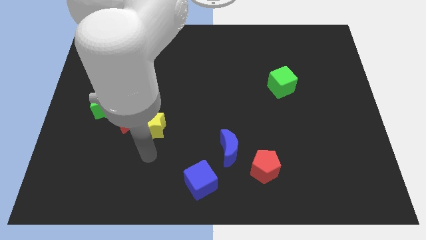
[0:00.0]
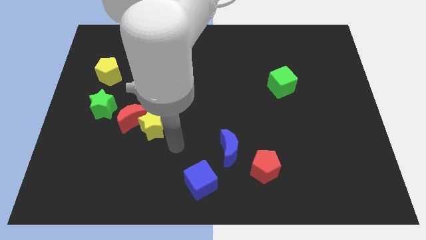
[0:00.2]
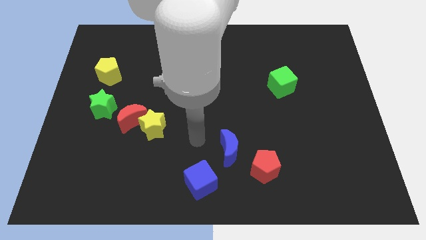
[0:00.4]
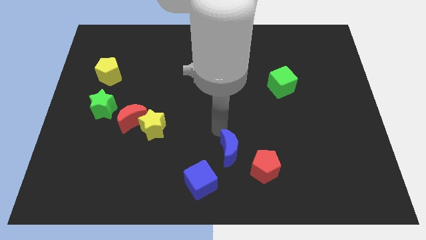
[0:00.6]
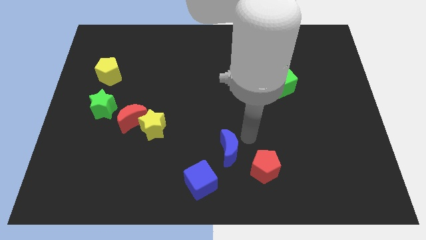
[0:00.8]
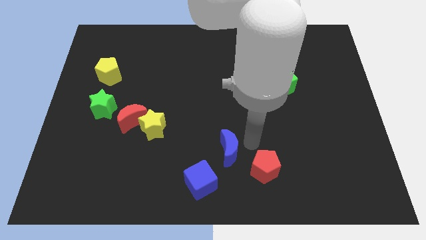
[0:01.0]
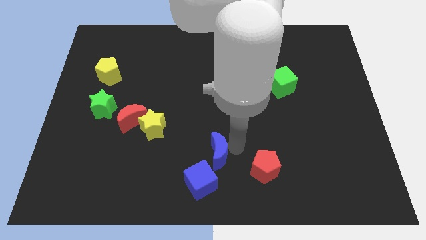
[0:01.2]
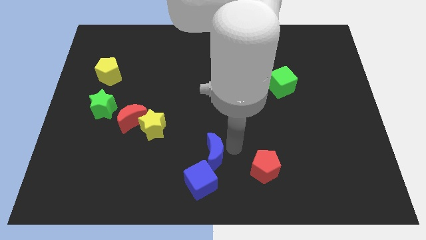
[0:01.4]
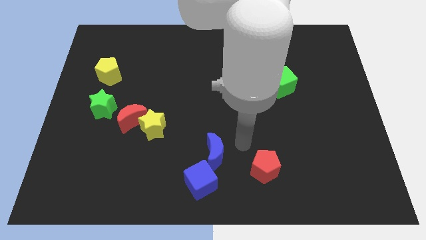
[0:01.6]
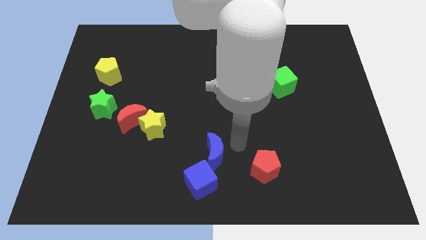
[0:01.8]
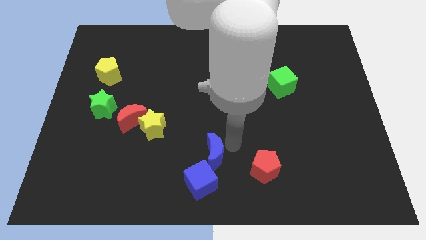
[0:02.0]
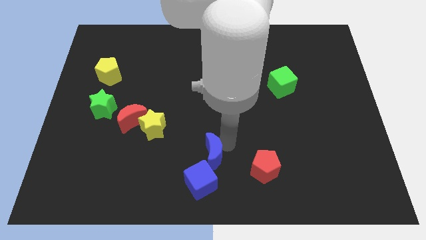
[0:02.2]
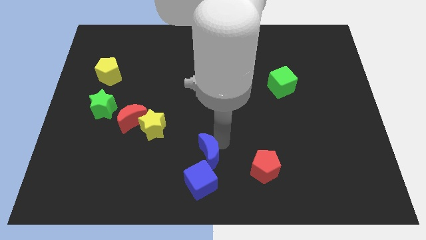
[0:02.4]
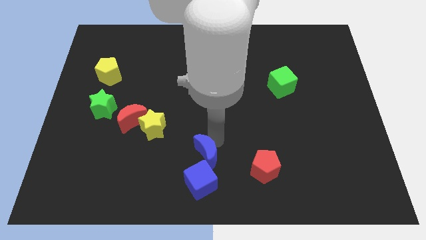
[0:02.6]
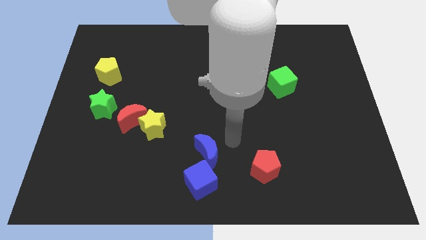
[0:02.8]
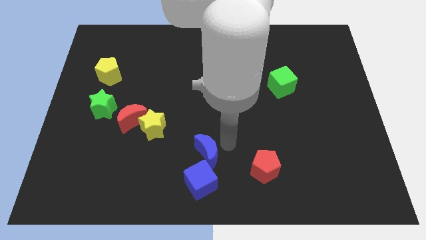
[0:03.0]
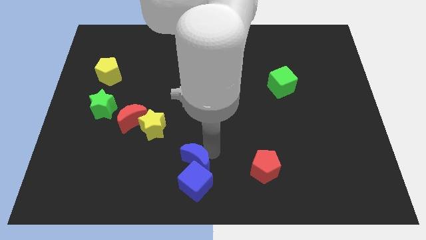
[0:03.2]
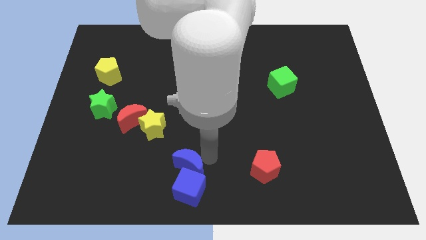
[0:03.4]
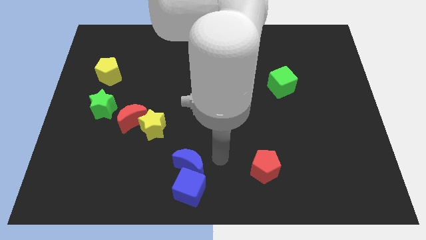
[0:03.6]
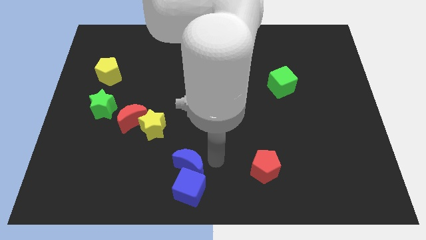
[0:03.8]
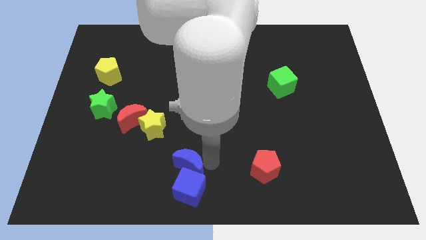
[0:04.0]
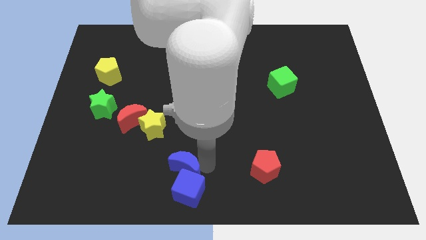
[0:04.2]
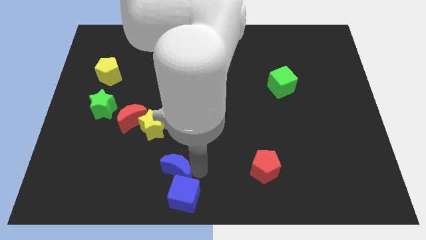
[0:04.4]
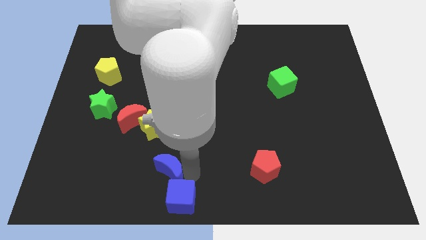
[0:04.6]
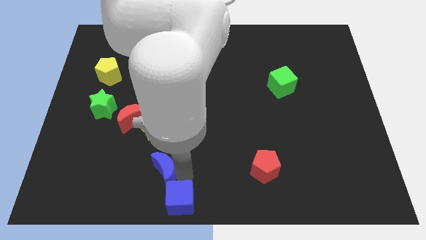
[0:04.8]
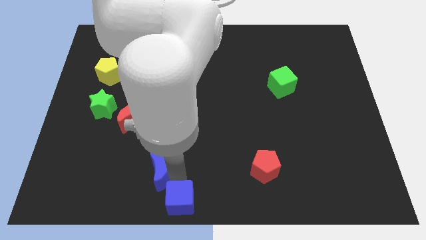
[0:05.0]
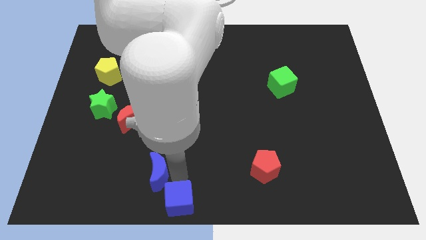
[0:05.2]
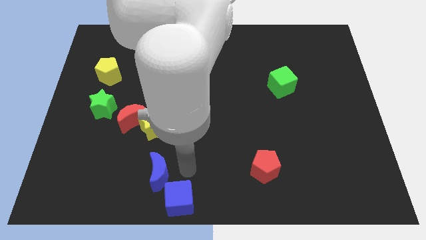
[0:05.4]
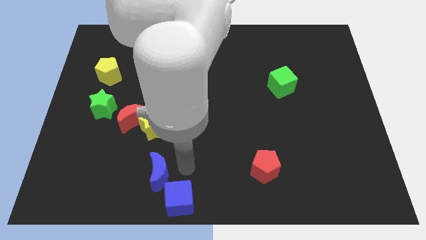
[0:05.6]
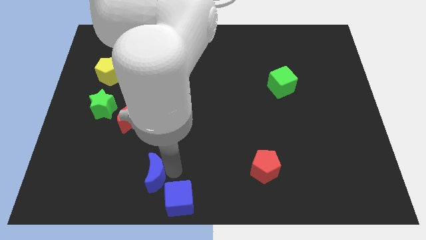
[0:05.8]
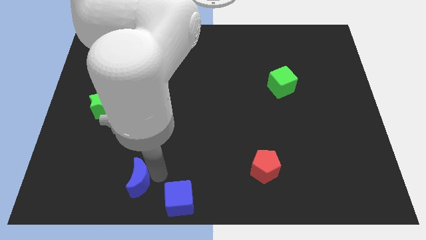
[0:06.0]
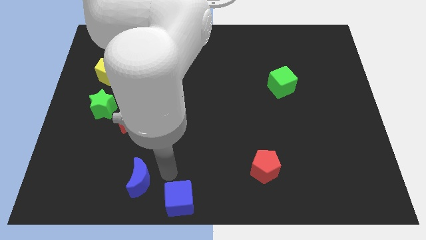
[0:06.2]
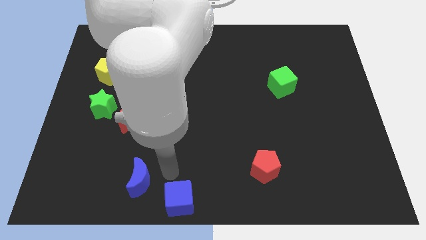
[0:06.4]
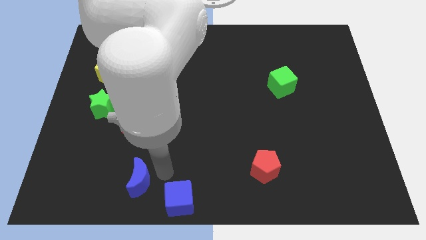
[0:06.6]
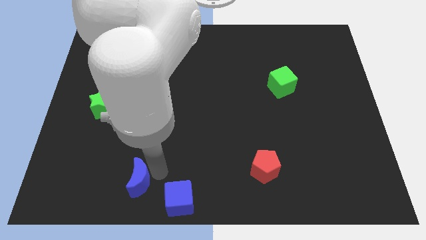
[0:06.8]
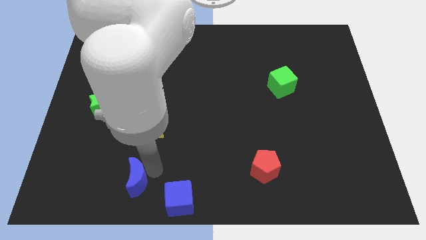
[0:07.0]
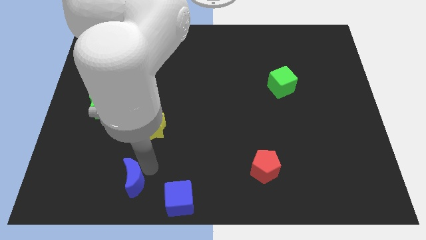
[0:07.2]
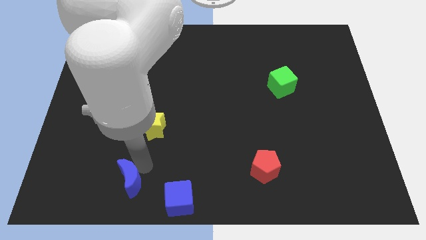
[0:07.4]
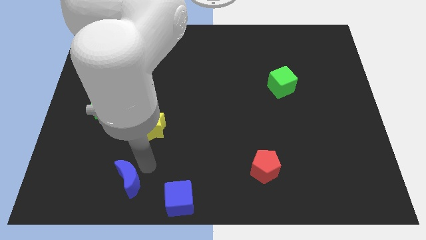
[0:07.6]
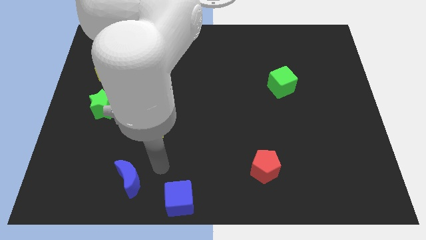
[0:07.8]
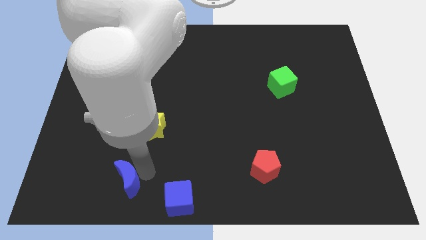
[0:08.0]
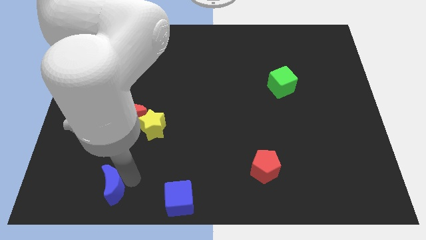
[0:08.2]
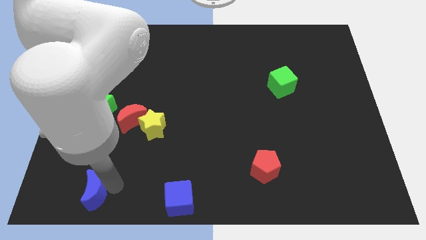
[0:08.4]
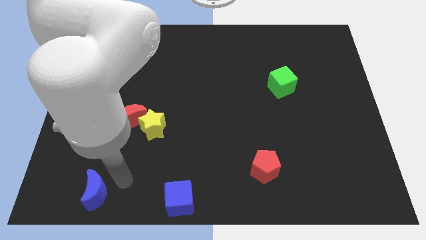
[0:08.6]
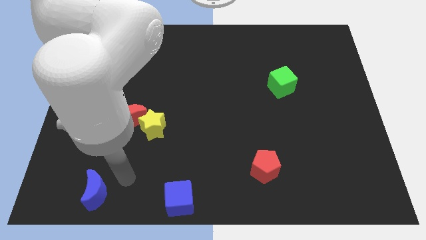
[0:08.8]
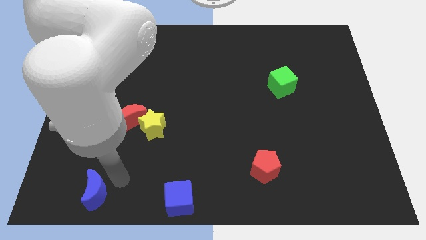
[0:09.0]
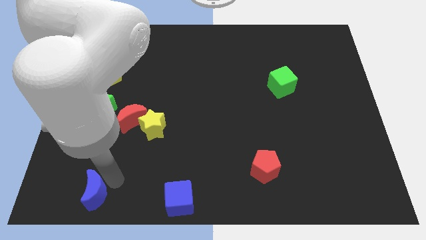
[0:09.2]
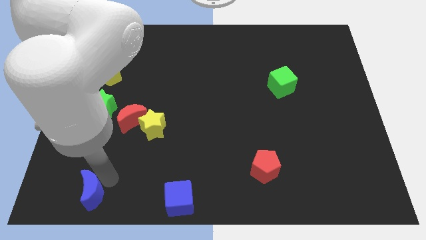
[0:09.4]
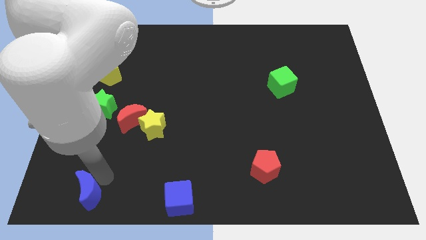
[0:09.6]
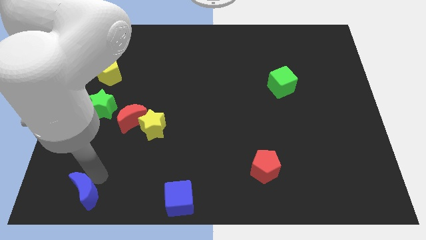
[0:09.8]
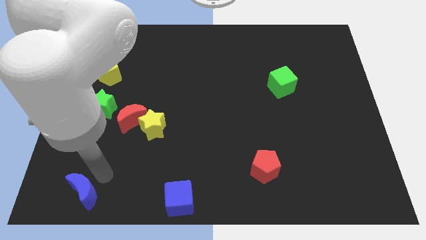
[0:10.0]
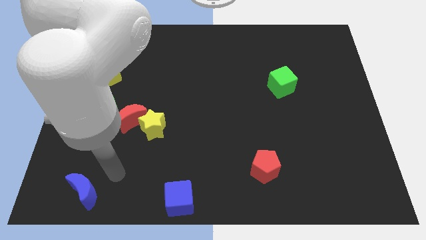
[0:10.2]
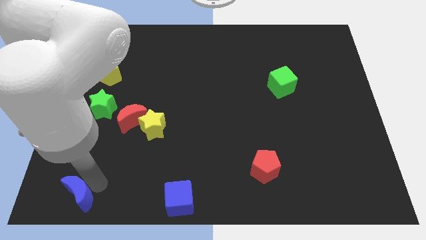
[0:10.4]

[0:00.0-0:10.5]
move the blue moon to the bottom left of the board

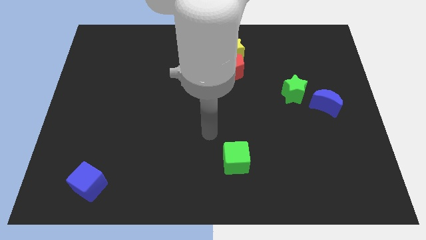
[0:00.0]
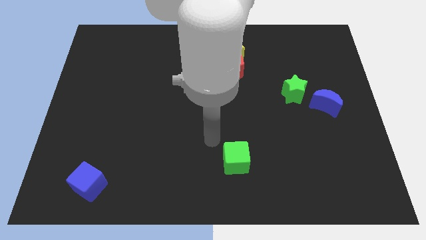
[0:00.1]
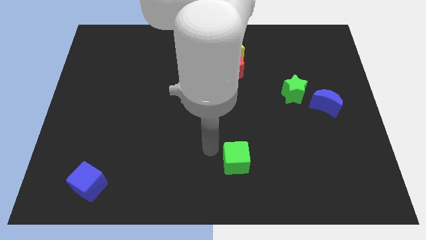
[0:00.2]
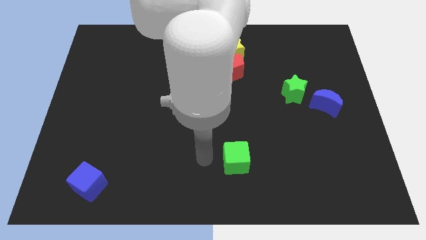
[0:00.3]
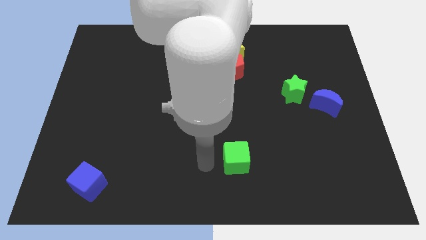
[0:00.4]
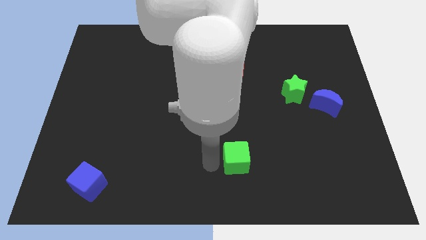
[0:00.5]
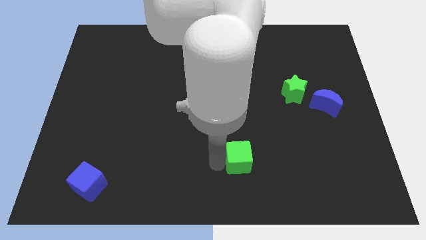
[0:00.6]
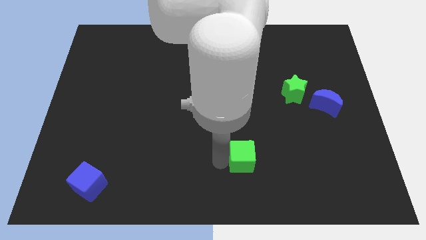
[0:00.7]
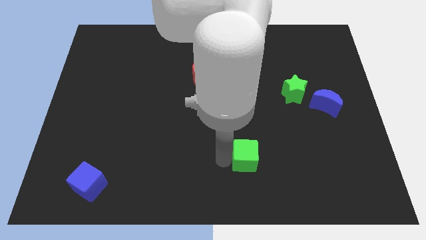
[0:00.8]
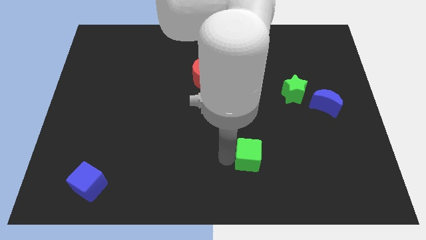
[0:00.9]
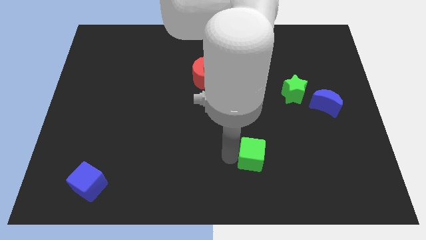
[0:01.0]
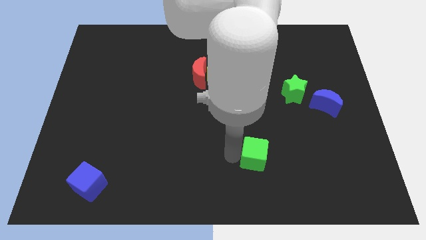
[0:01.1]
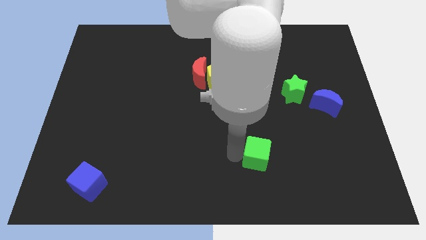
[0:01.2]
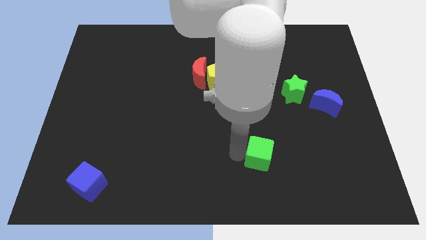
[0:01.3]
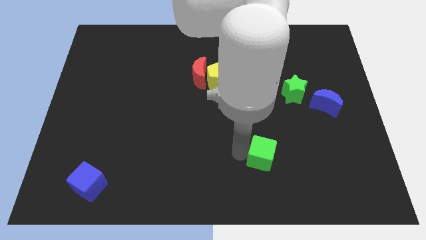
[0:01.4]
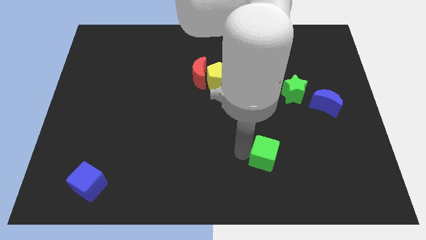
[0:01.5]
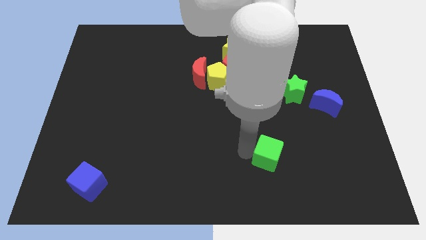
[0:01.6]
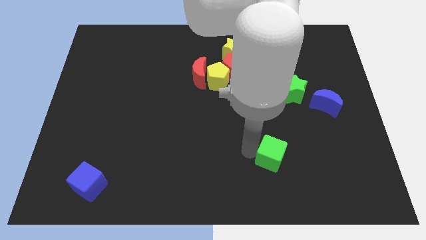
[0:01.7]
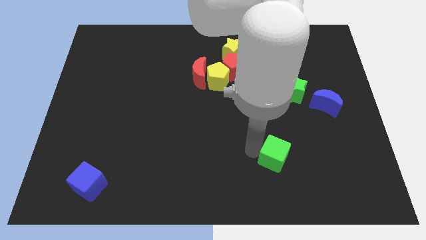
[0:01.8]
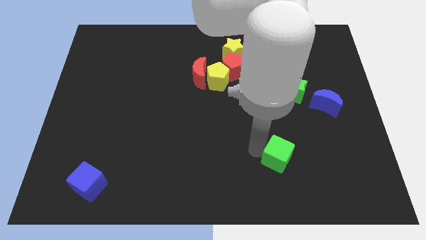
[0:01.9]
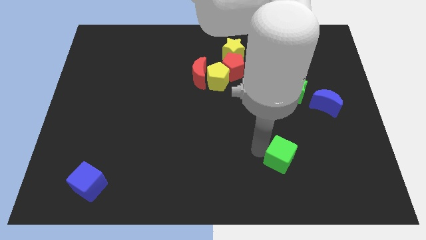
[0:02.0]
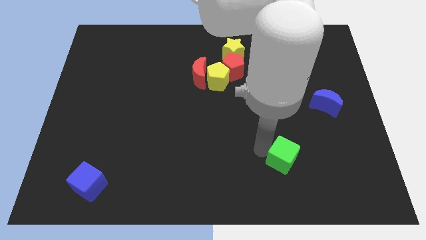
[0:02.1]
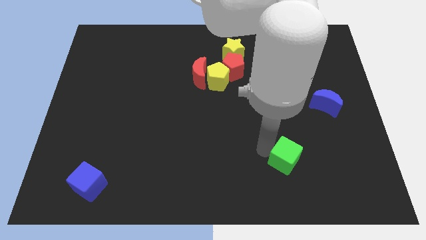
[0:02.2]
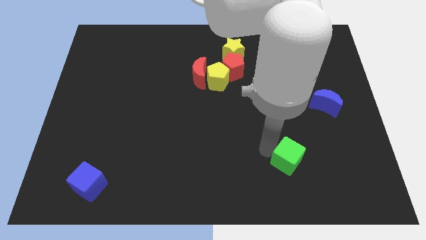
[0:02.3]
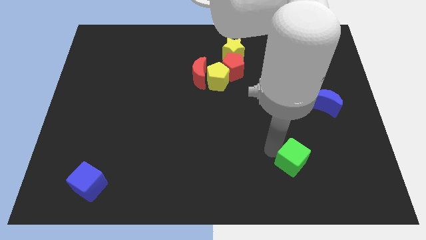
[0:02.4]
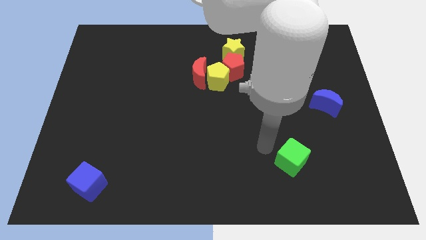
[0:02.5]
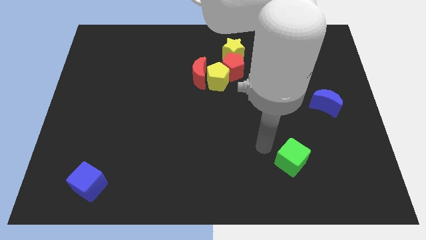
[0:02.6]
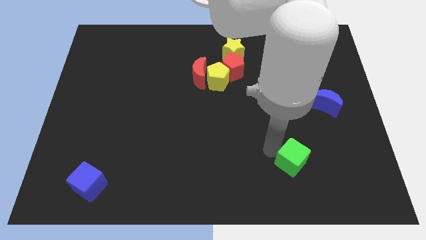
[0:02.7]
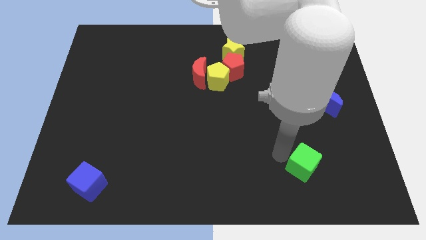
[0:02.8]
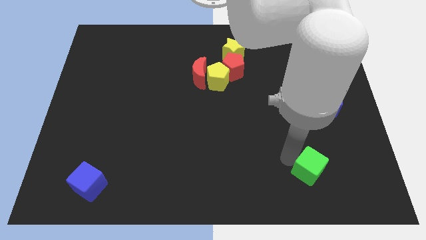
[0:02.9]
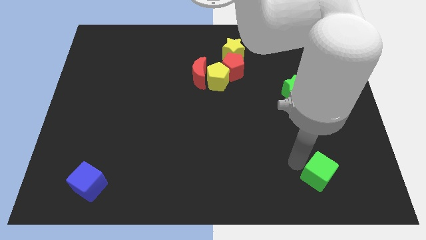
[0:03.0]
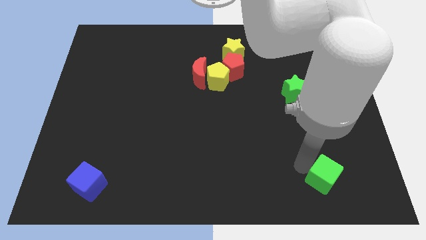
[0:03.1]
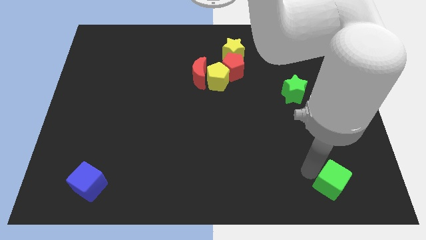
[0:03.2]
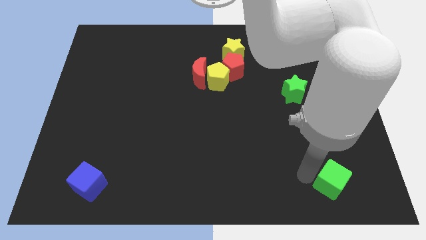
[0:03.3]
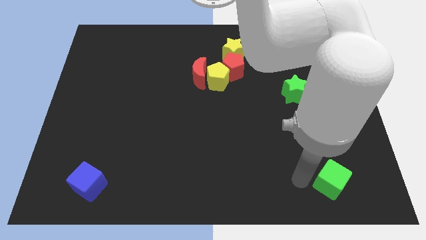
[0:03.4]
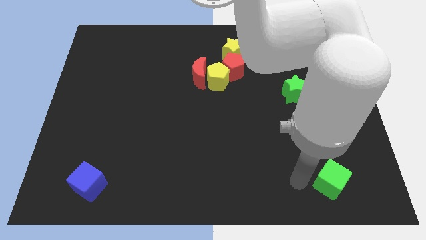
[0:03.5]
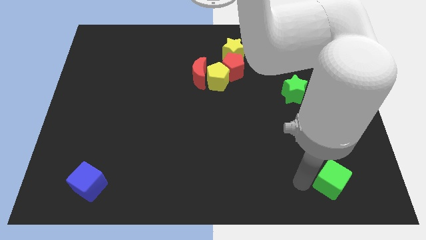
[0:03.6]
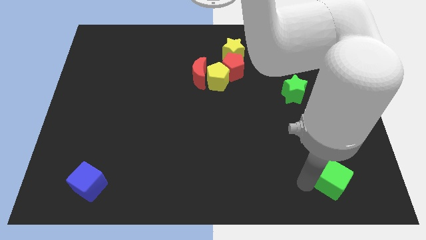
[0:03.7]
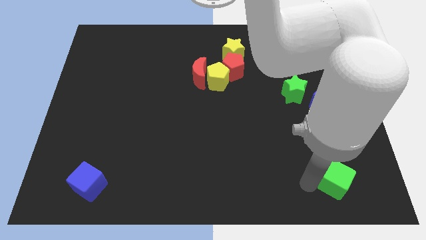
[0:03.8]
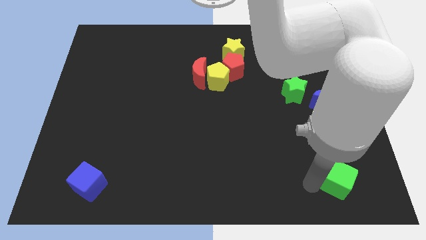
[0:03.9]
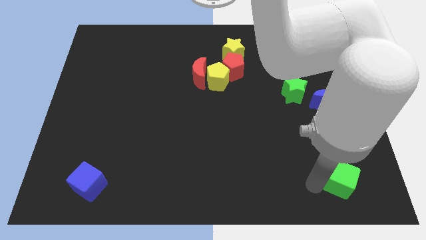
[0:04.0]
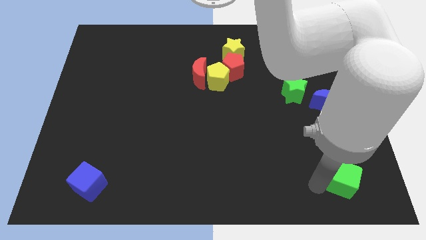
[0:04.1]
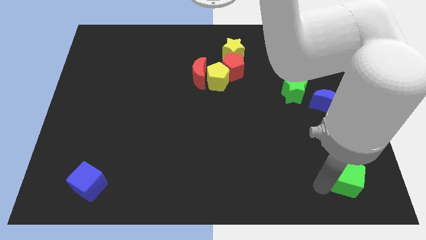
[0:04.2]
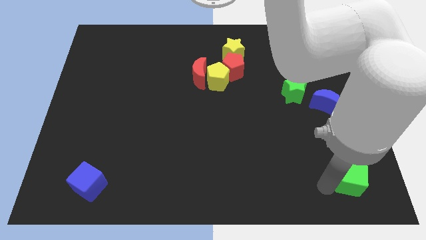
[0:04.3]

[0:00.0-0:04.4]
put the green cube to the bottom right corner
